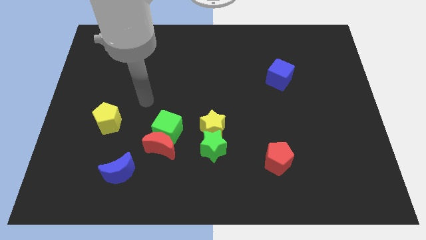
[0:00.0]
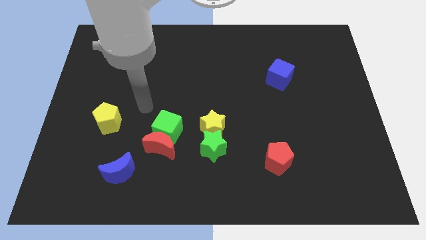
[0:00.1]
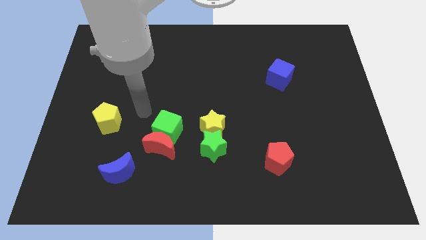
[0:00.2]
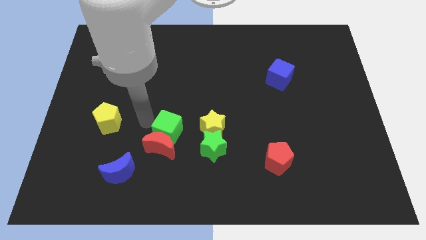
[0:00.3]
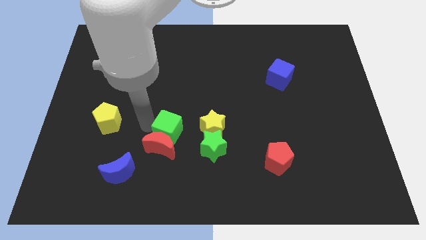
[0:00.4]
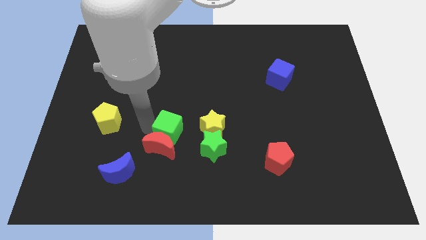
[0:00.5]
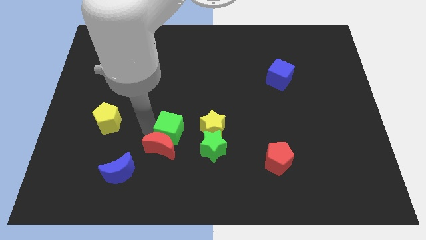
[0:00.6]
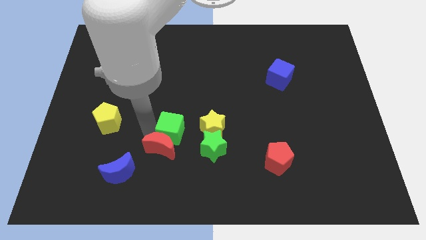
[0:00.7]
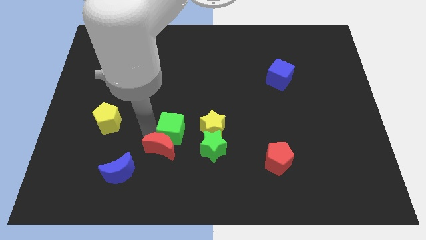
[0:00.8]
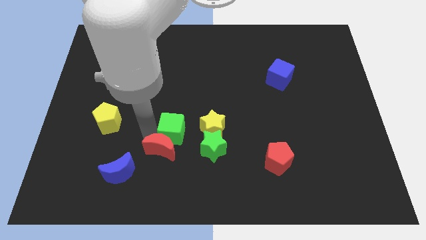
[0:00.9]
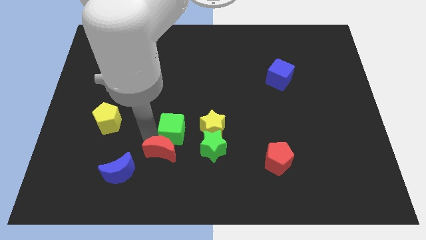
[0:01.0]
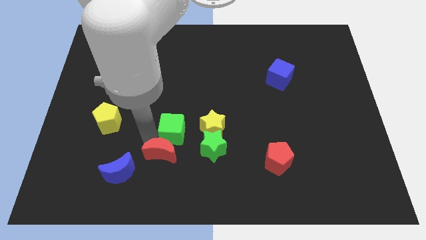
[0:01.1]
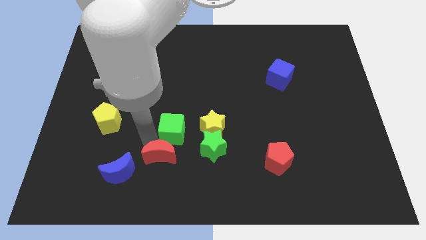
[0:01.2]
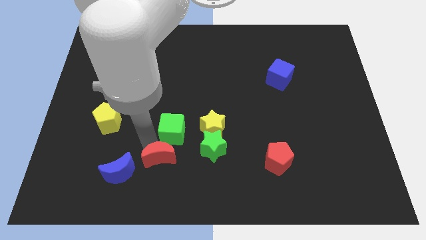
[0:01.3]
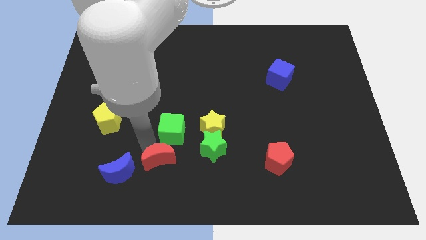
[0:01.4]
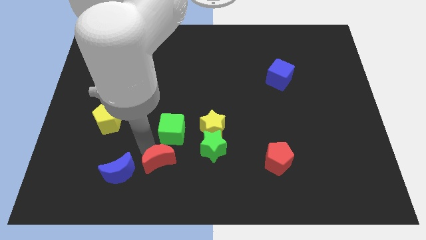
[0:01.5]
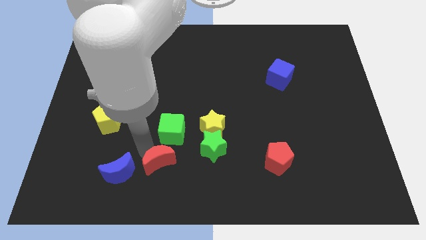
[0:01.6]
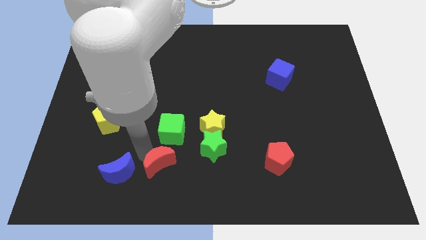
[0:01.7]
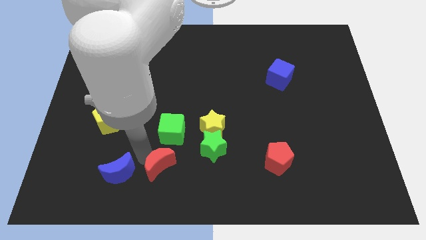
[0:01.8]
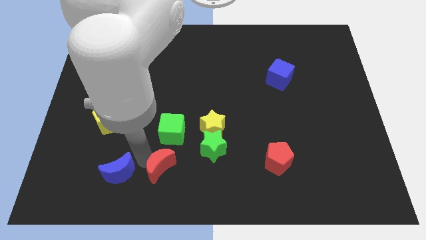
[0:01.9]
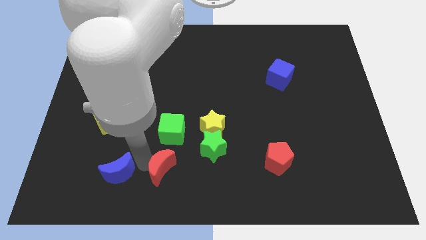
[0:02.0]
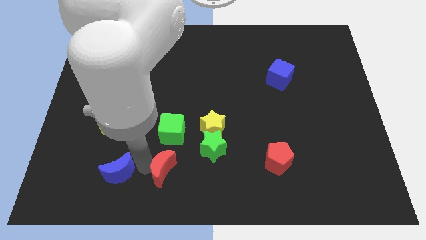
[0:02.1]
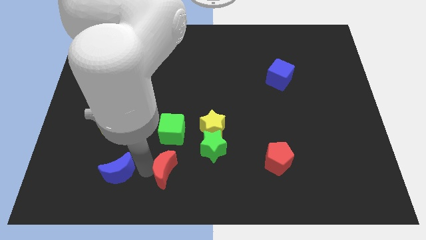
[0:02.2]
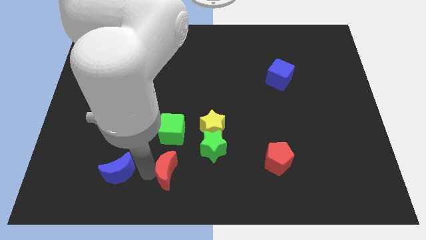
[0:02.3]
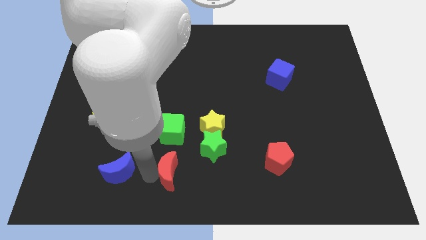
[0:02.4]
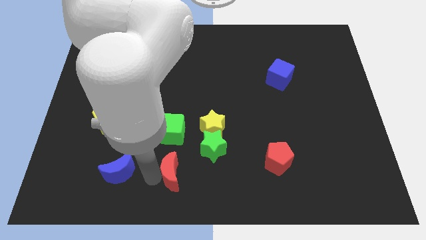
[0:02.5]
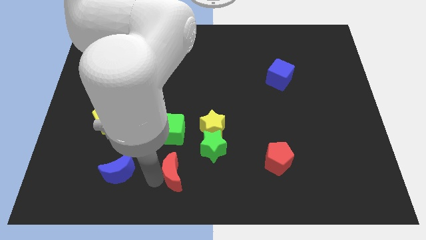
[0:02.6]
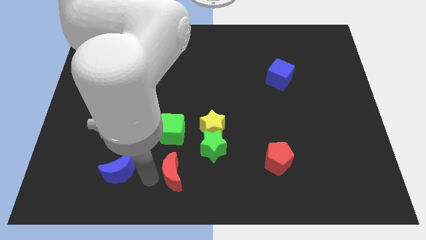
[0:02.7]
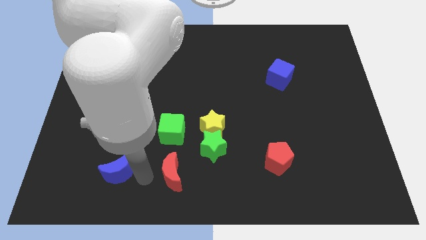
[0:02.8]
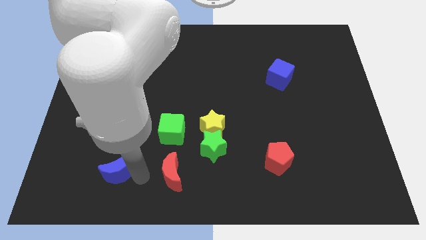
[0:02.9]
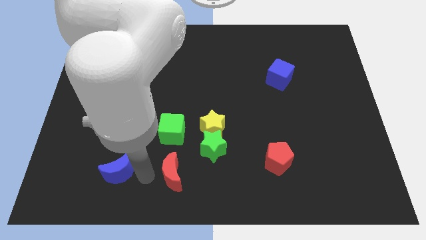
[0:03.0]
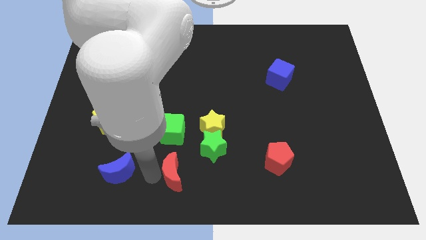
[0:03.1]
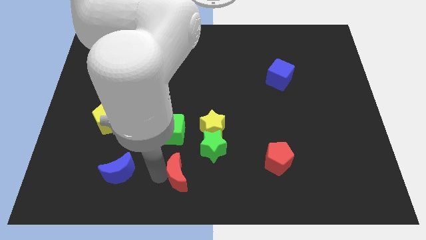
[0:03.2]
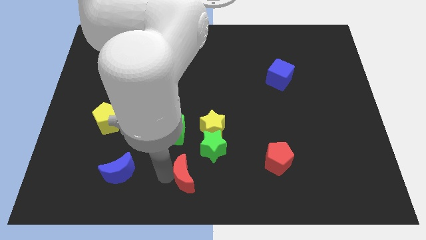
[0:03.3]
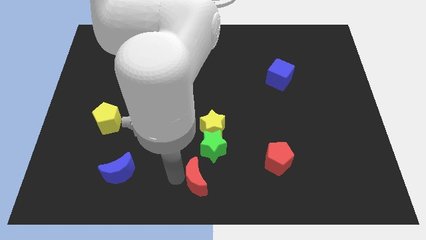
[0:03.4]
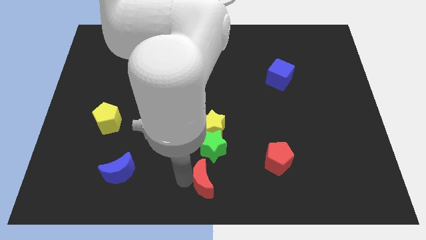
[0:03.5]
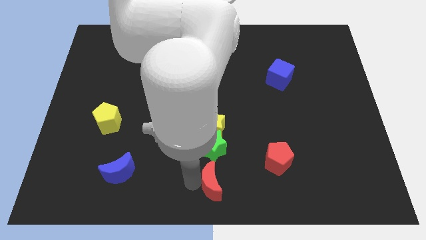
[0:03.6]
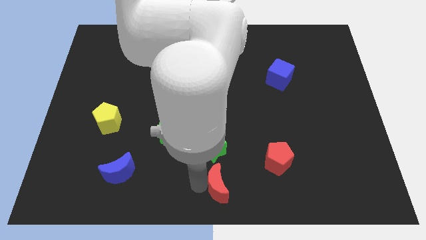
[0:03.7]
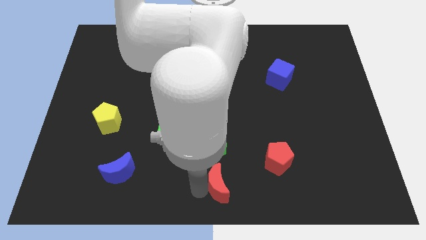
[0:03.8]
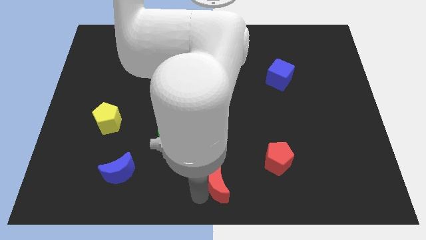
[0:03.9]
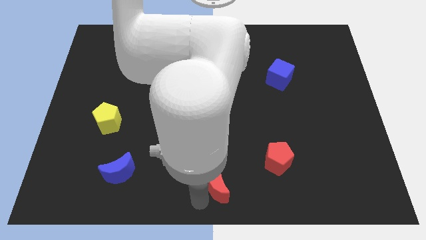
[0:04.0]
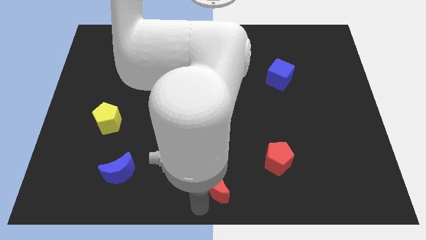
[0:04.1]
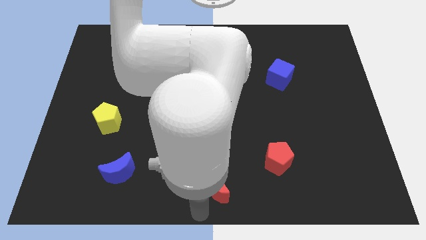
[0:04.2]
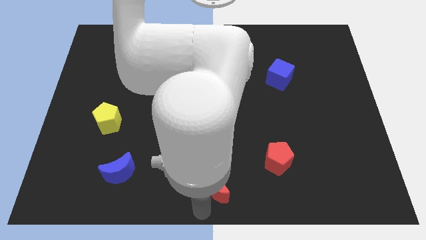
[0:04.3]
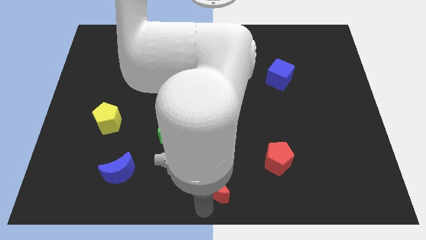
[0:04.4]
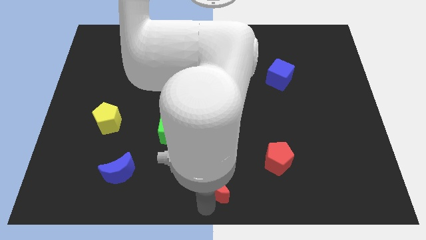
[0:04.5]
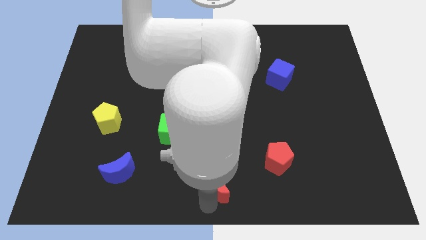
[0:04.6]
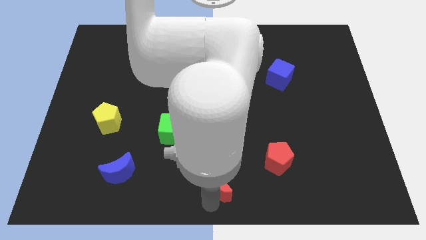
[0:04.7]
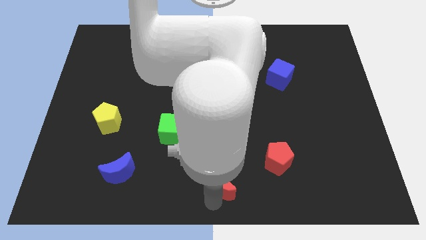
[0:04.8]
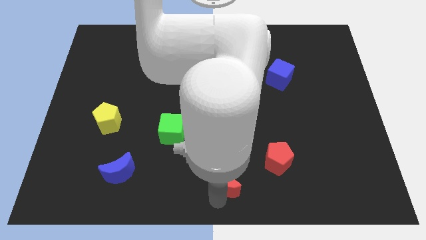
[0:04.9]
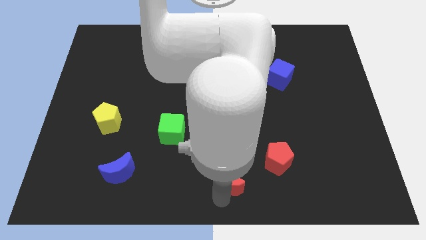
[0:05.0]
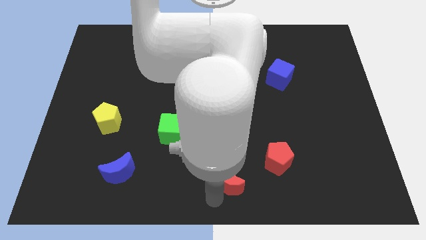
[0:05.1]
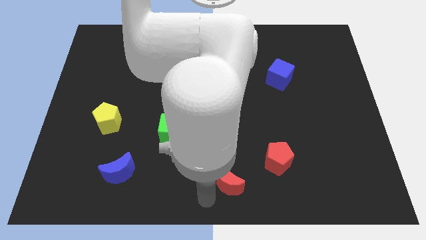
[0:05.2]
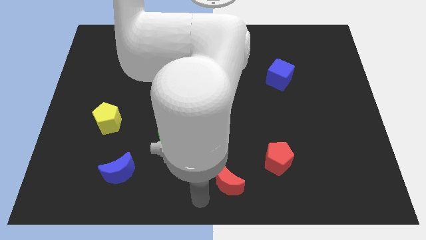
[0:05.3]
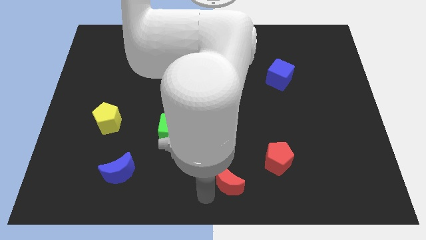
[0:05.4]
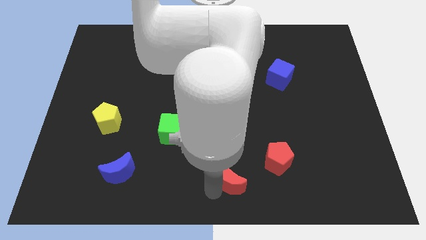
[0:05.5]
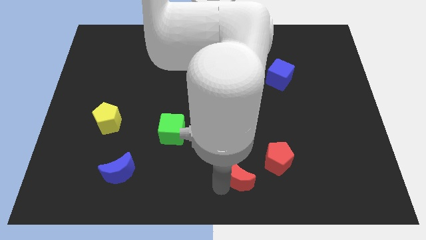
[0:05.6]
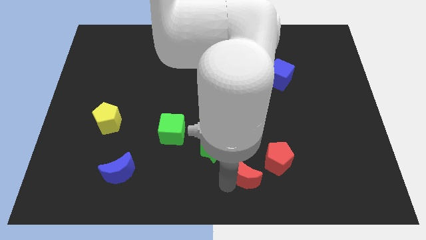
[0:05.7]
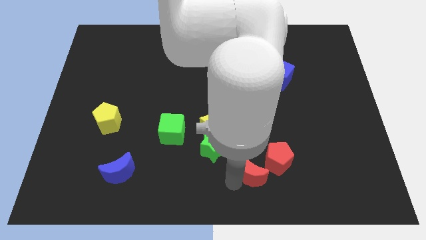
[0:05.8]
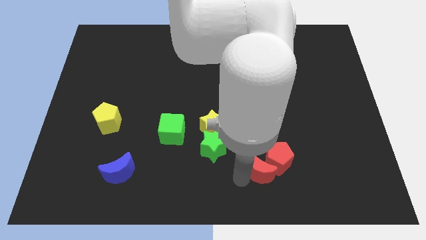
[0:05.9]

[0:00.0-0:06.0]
put the red moon next to the red pentagon
